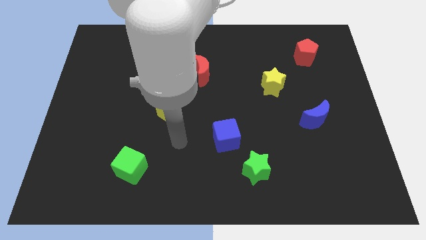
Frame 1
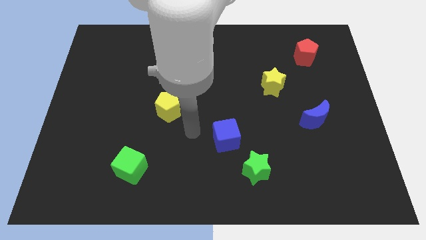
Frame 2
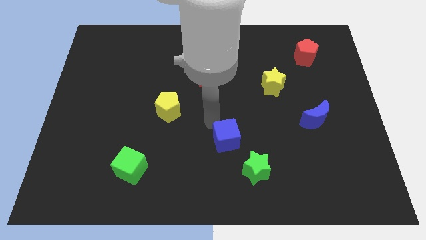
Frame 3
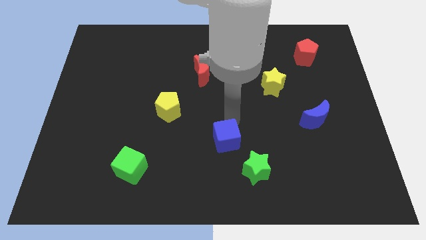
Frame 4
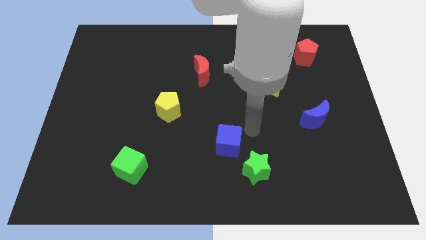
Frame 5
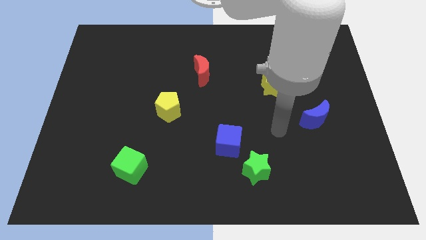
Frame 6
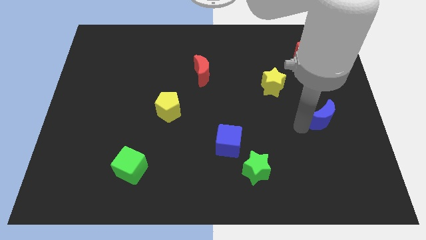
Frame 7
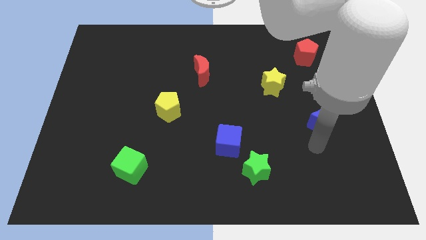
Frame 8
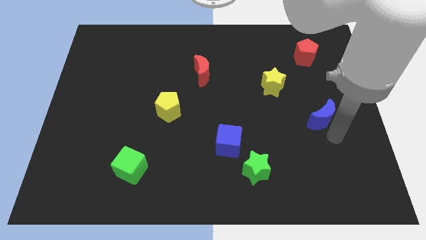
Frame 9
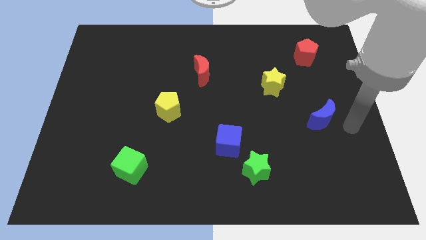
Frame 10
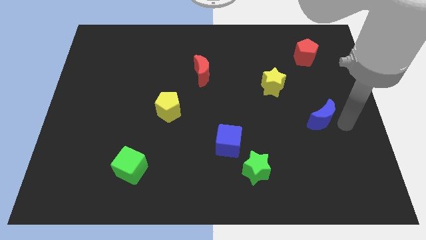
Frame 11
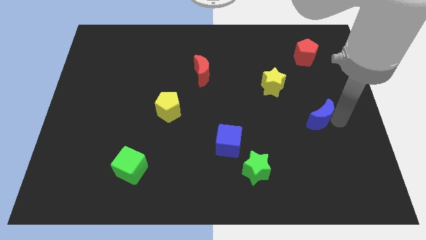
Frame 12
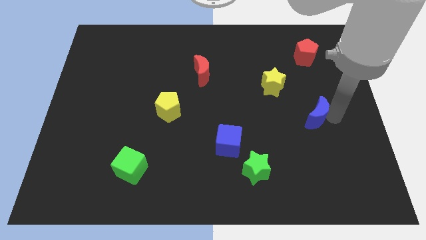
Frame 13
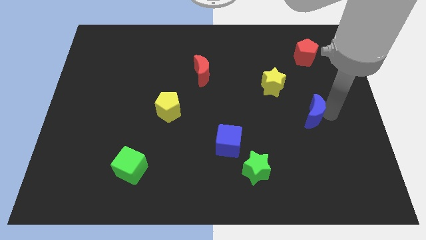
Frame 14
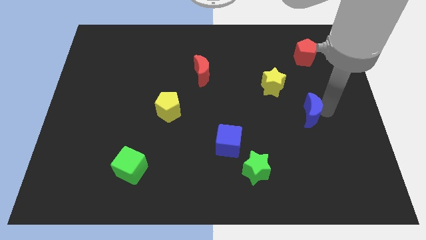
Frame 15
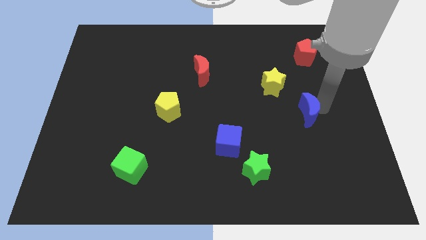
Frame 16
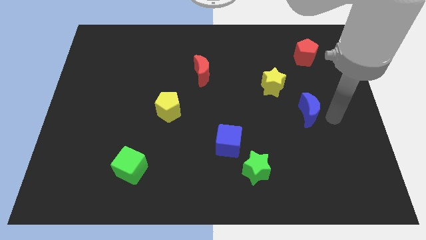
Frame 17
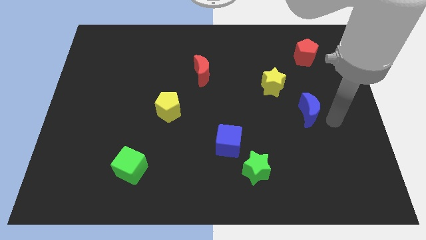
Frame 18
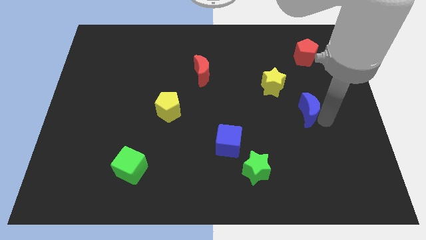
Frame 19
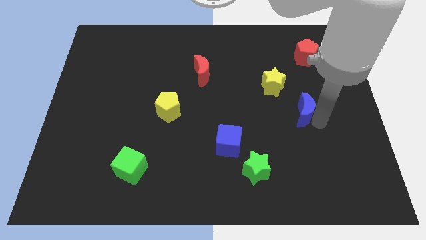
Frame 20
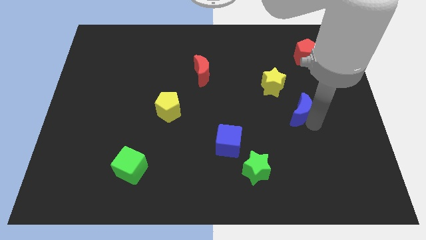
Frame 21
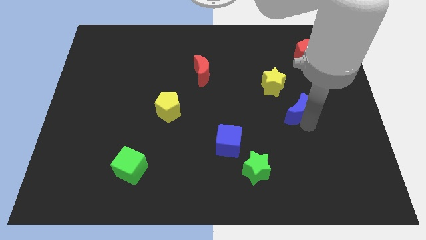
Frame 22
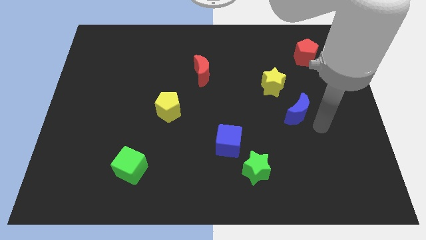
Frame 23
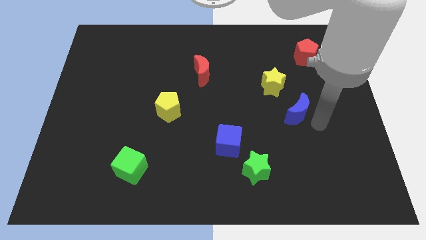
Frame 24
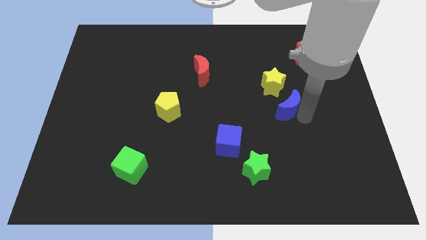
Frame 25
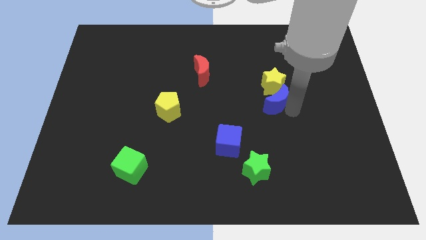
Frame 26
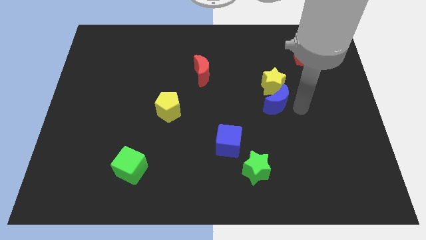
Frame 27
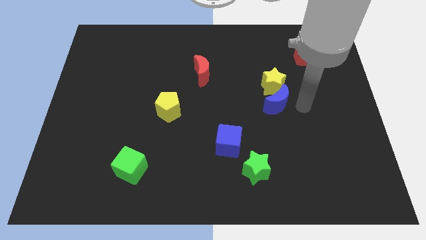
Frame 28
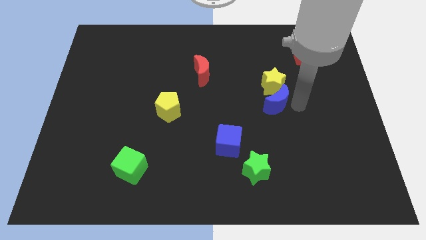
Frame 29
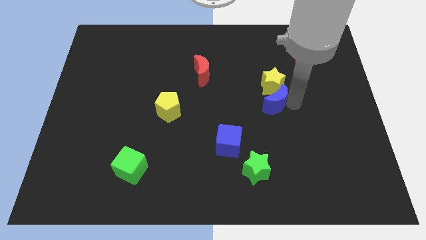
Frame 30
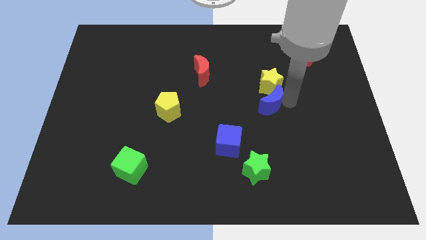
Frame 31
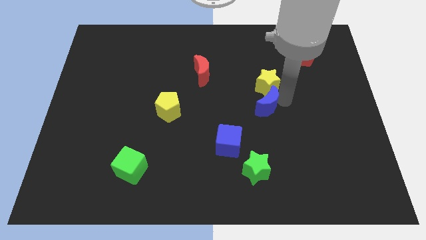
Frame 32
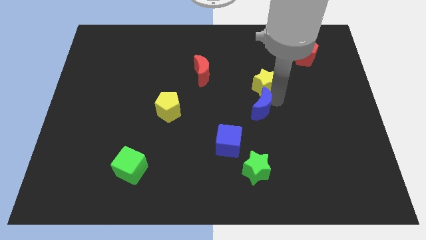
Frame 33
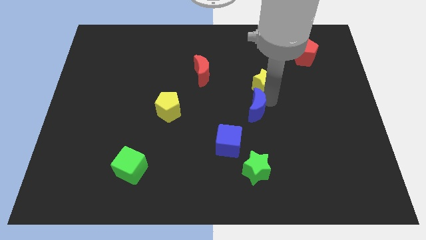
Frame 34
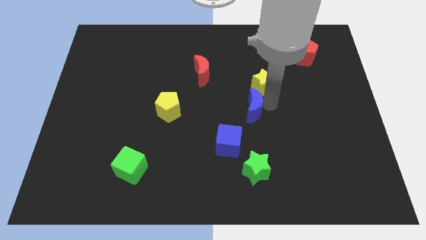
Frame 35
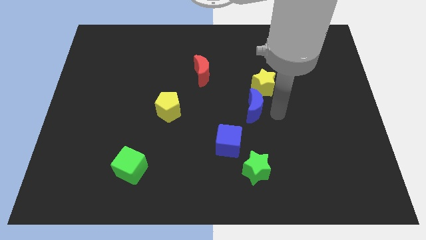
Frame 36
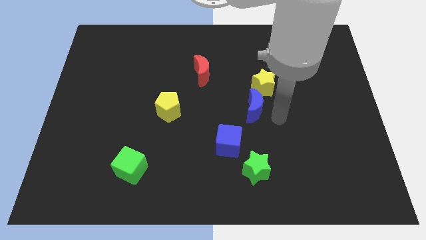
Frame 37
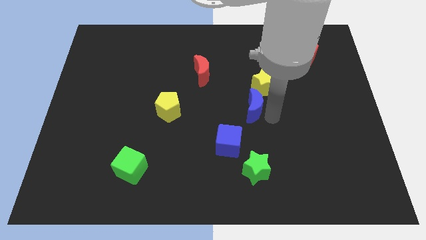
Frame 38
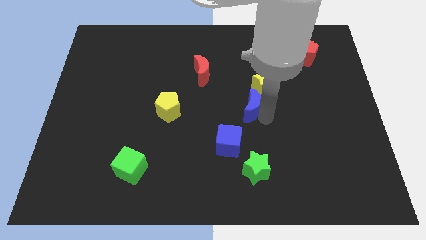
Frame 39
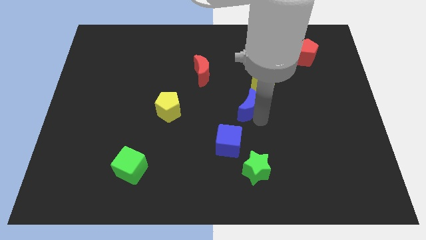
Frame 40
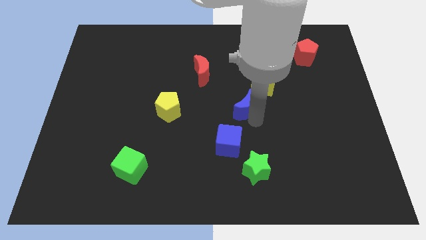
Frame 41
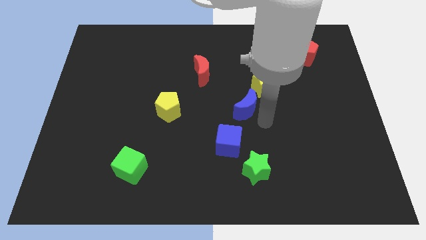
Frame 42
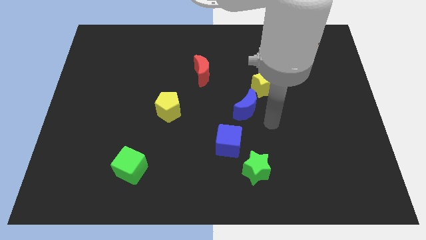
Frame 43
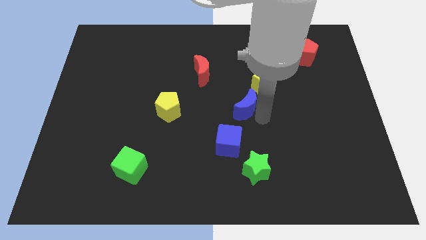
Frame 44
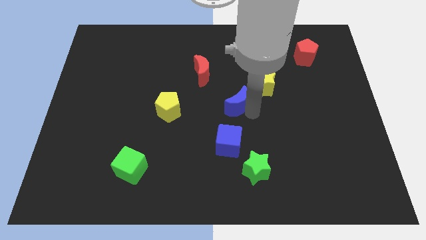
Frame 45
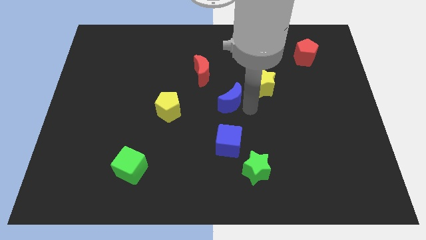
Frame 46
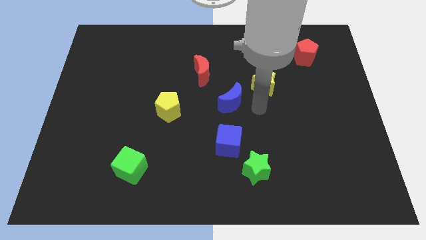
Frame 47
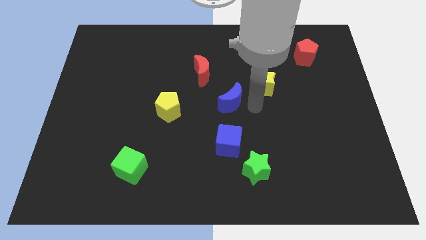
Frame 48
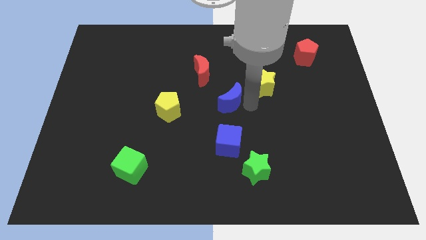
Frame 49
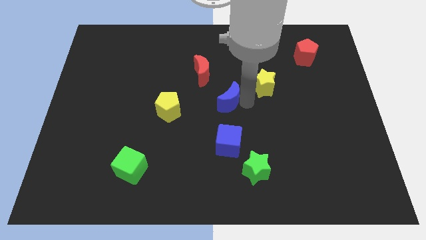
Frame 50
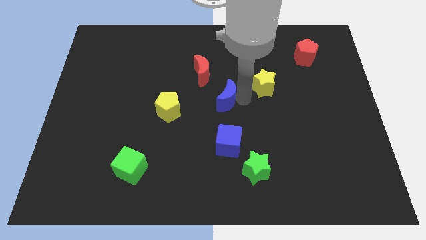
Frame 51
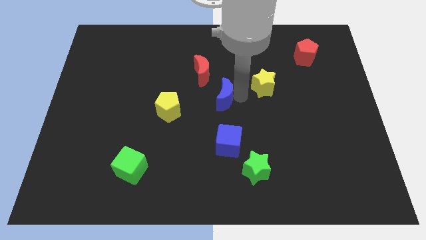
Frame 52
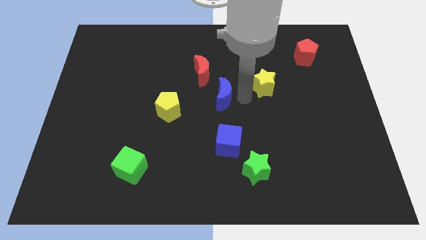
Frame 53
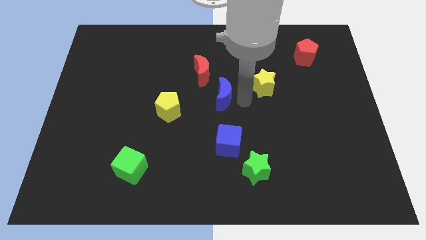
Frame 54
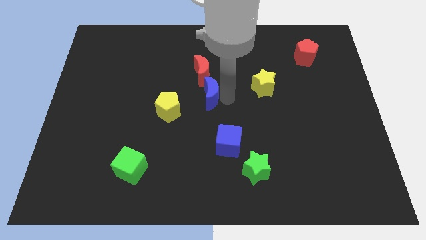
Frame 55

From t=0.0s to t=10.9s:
push the blue moon diagonally up and to the right of the yellow pentagon

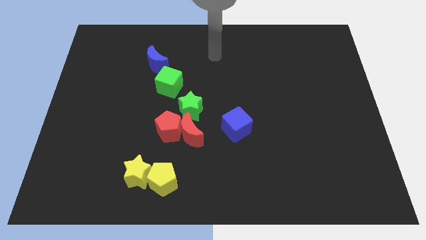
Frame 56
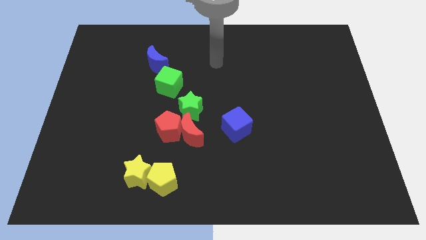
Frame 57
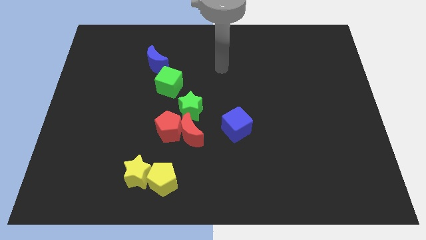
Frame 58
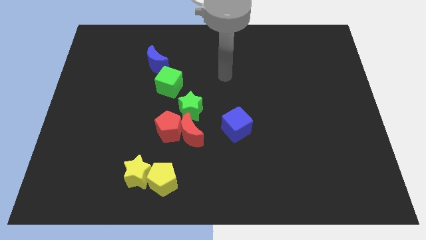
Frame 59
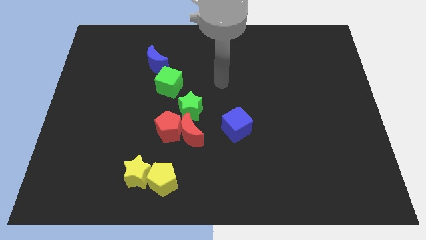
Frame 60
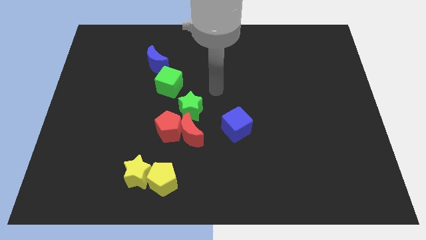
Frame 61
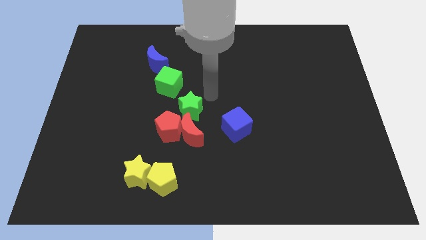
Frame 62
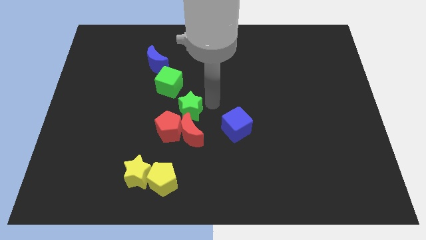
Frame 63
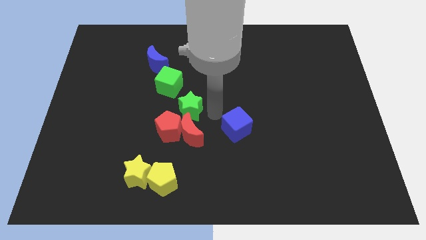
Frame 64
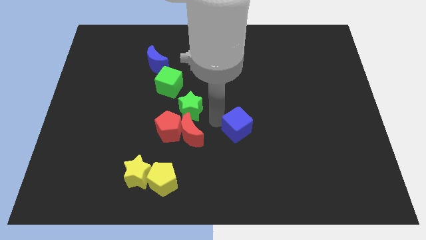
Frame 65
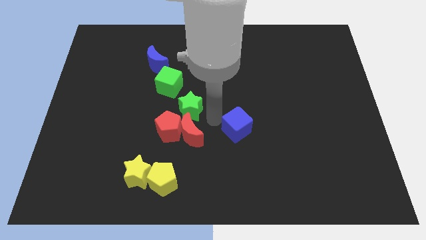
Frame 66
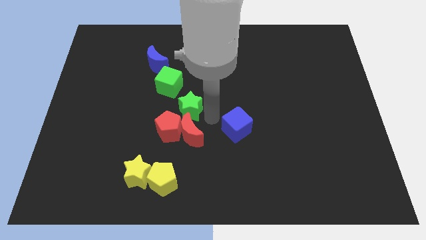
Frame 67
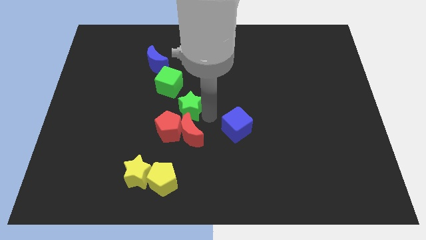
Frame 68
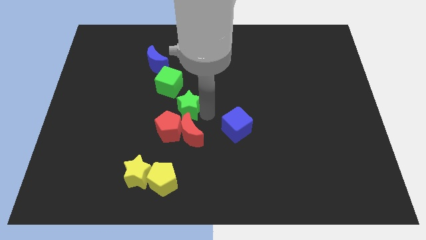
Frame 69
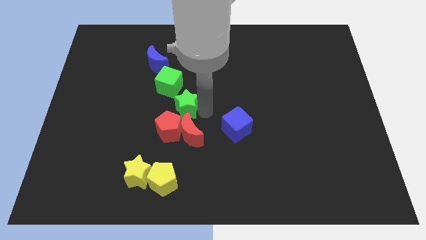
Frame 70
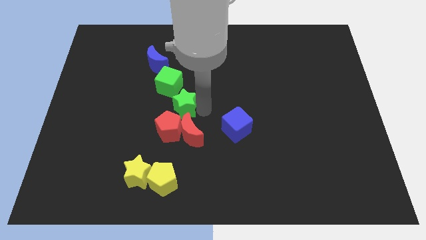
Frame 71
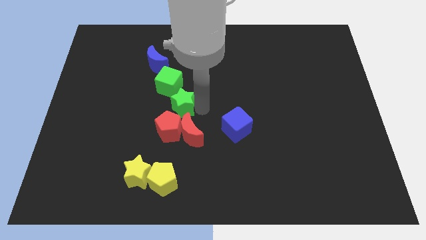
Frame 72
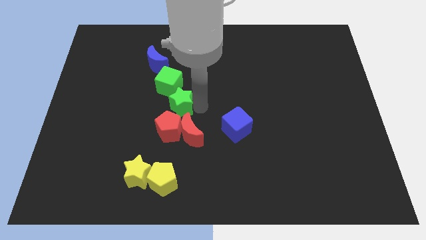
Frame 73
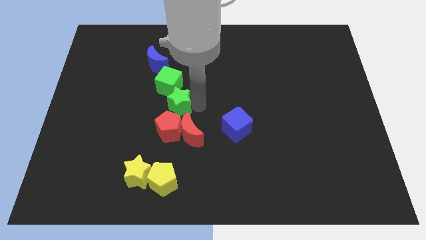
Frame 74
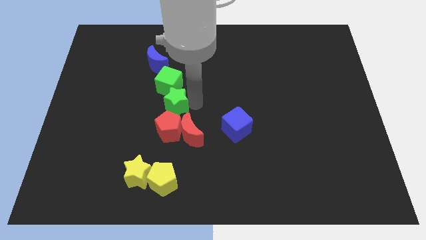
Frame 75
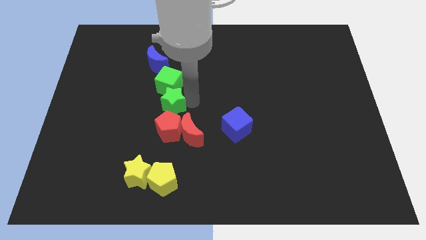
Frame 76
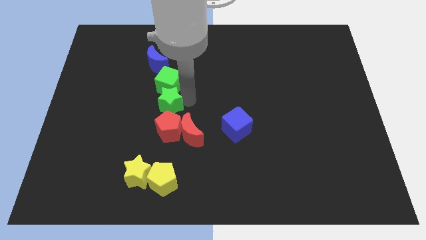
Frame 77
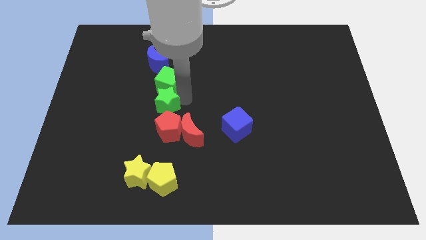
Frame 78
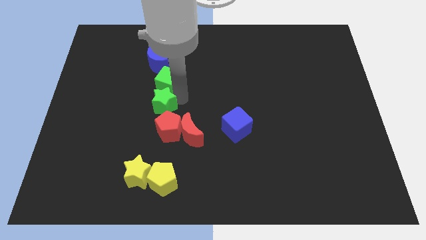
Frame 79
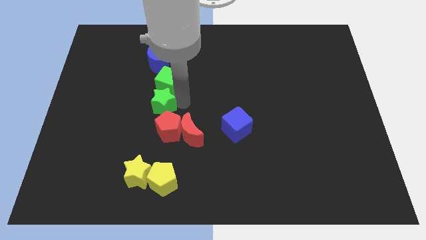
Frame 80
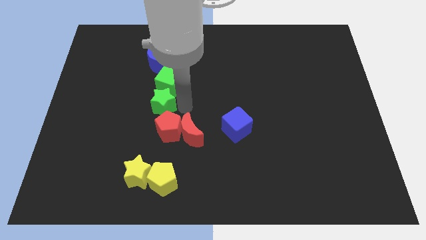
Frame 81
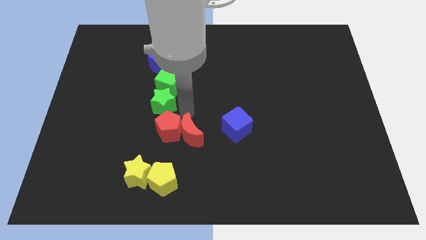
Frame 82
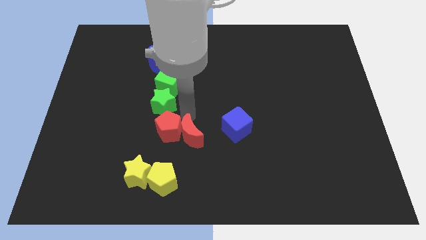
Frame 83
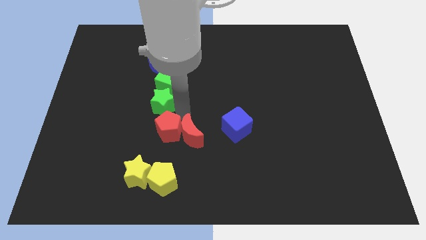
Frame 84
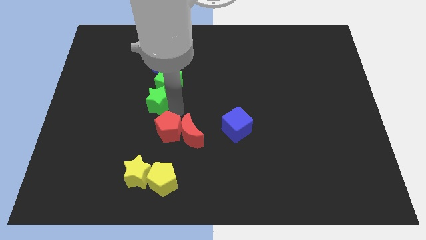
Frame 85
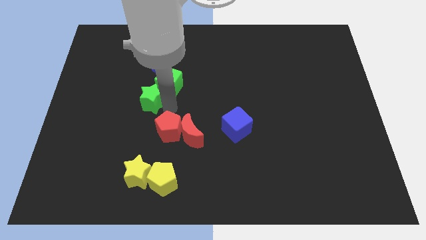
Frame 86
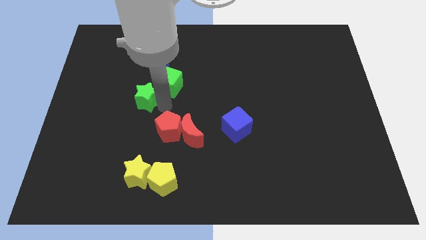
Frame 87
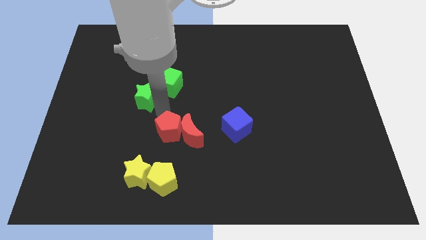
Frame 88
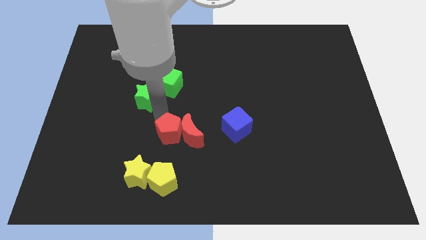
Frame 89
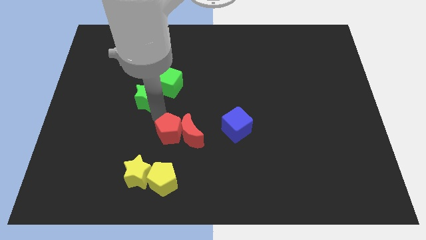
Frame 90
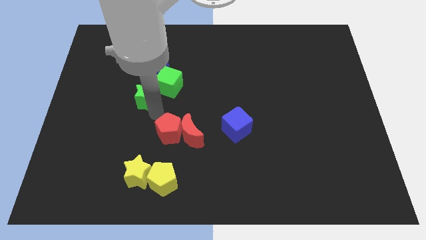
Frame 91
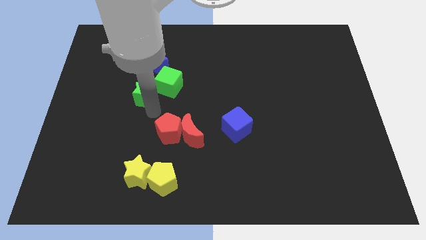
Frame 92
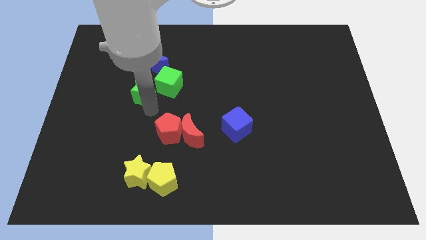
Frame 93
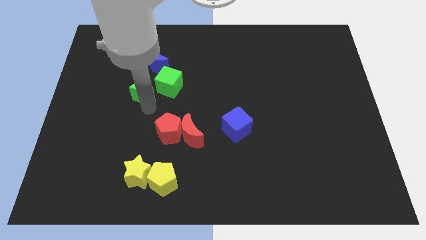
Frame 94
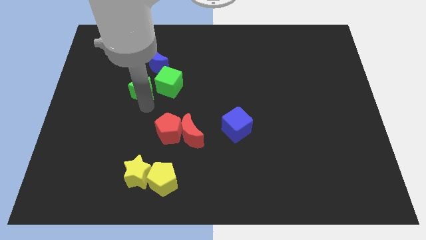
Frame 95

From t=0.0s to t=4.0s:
move the green star to the bottom left of the blue moon
